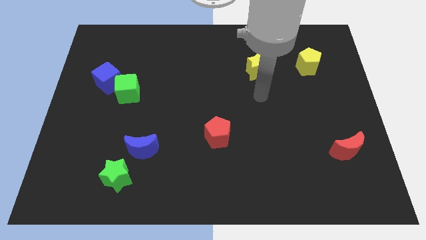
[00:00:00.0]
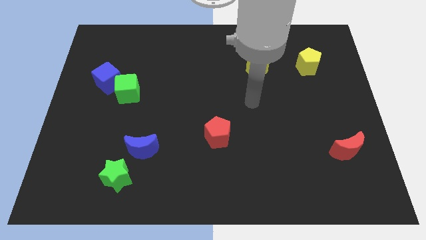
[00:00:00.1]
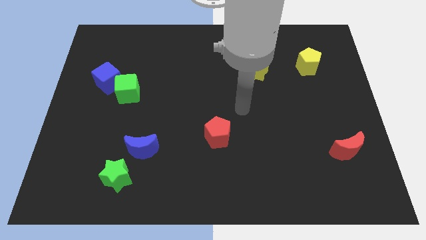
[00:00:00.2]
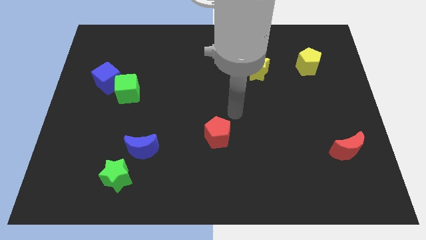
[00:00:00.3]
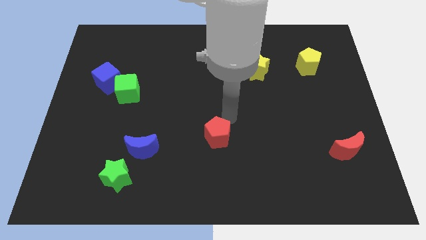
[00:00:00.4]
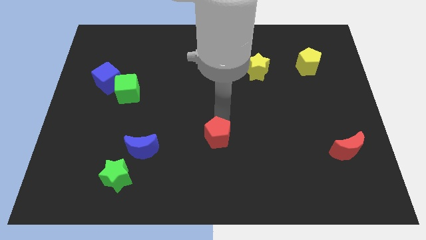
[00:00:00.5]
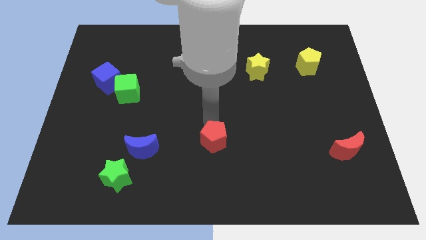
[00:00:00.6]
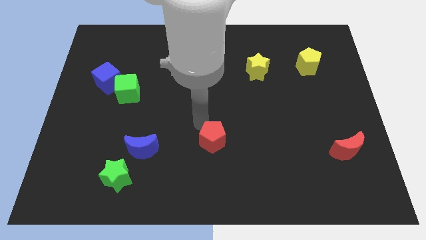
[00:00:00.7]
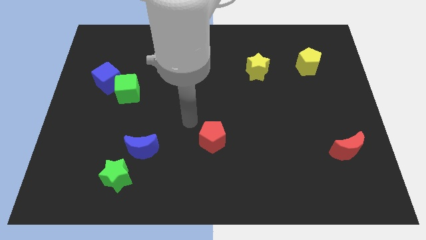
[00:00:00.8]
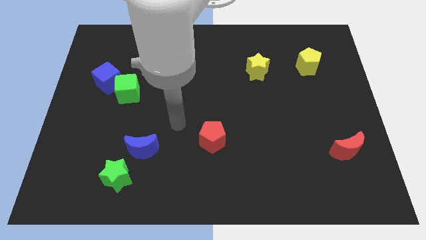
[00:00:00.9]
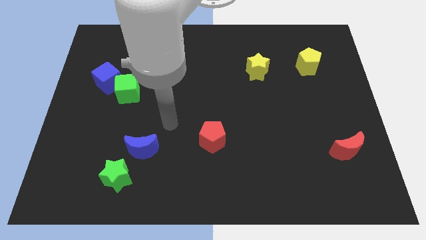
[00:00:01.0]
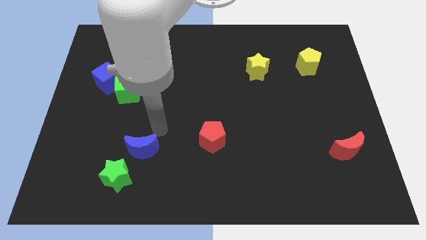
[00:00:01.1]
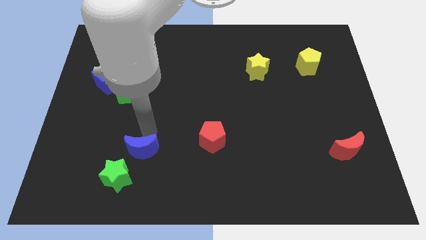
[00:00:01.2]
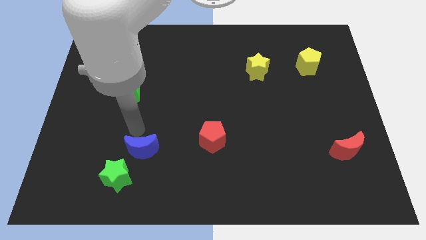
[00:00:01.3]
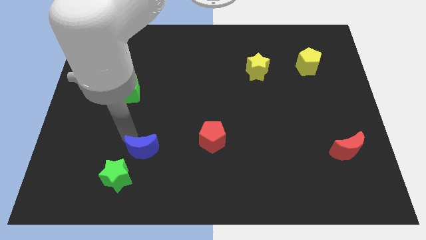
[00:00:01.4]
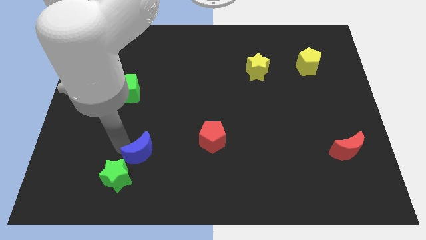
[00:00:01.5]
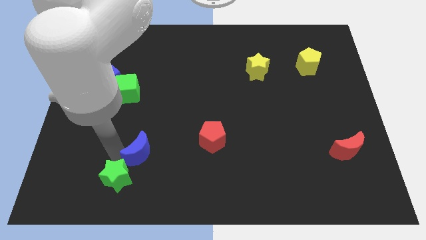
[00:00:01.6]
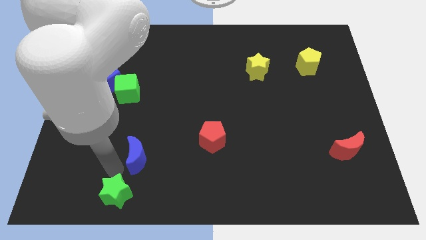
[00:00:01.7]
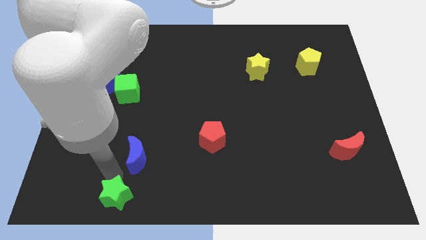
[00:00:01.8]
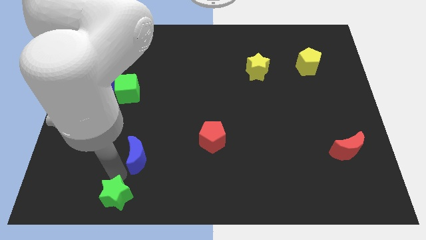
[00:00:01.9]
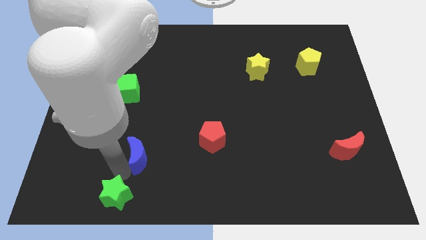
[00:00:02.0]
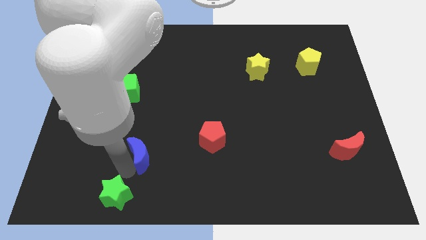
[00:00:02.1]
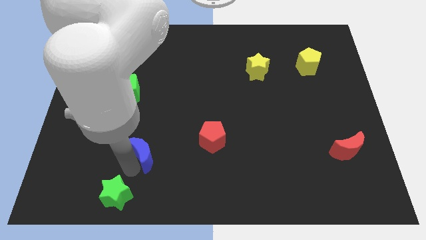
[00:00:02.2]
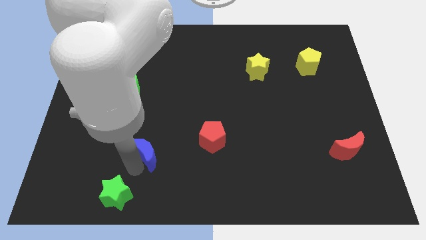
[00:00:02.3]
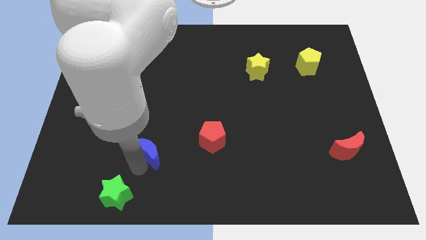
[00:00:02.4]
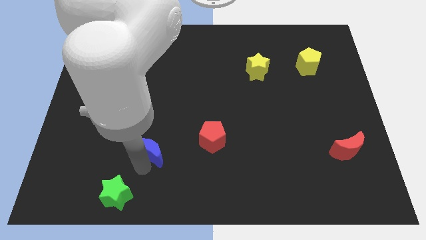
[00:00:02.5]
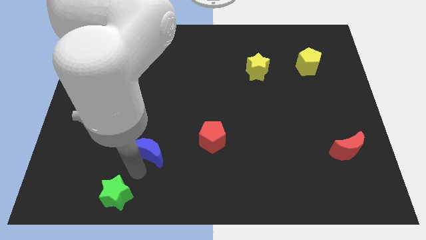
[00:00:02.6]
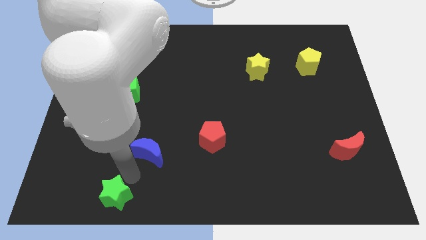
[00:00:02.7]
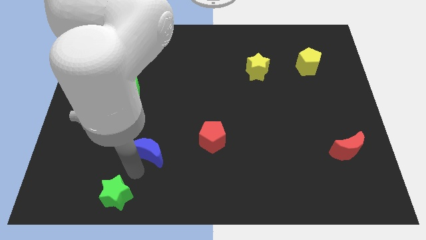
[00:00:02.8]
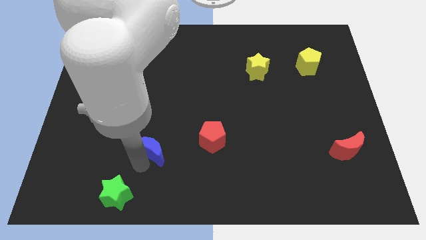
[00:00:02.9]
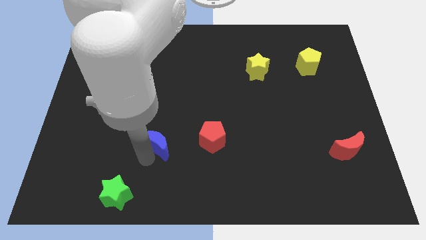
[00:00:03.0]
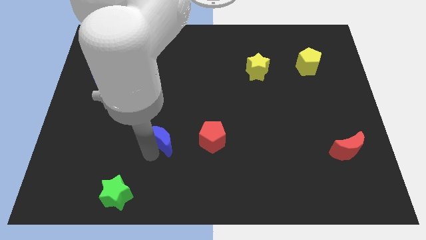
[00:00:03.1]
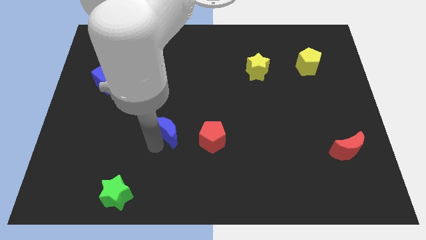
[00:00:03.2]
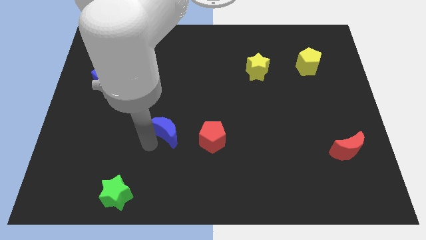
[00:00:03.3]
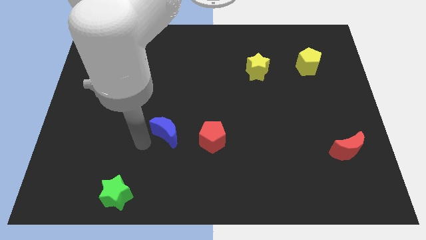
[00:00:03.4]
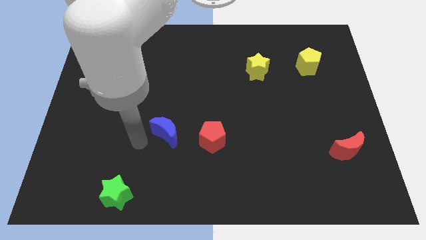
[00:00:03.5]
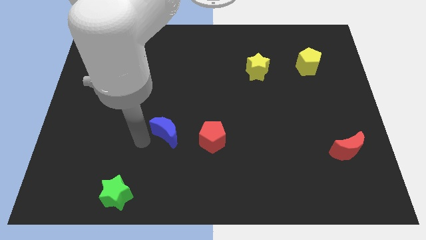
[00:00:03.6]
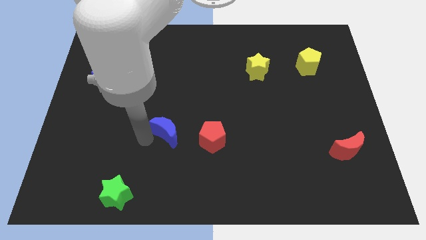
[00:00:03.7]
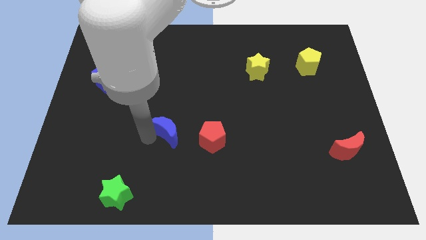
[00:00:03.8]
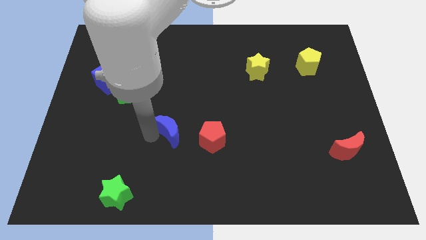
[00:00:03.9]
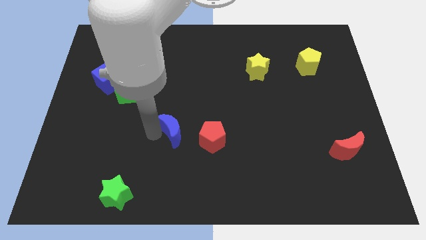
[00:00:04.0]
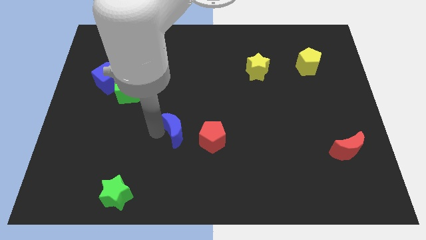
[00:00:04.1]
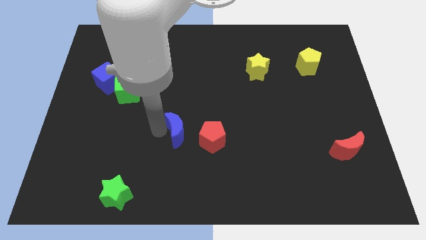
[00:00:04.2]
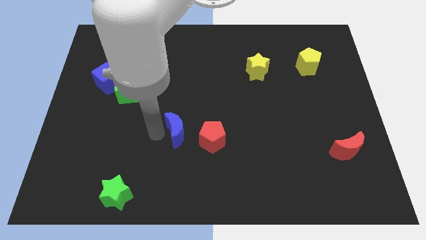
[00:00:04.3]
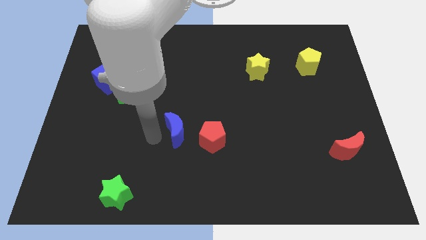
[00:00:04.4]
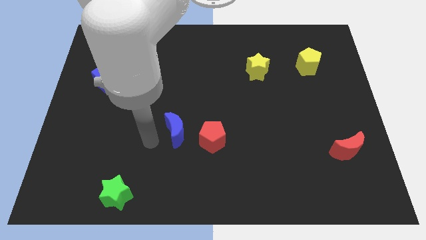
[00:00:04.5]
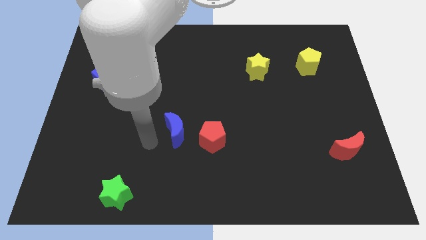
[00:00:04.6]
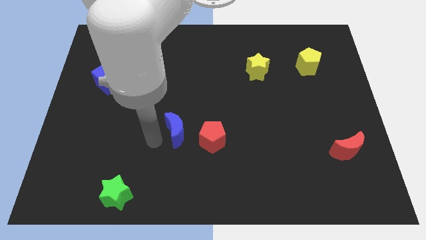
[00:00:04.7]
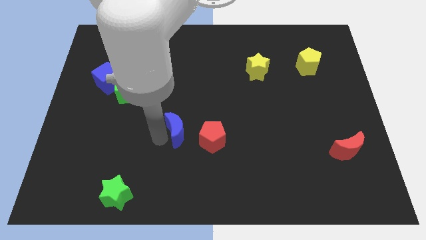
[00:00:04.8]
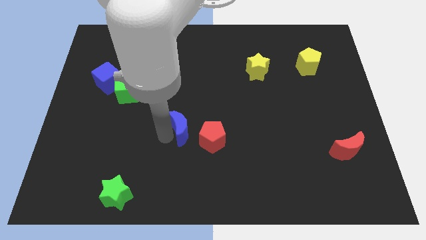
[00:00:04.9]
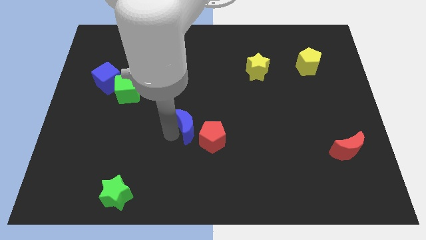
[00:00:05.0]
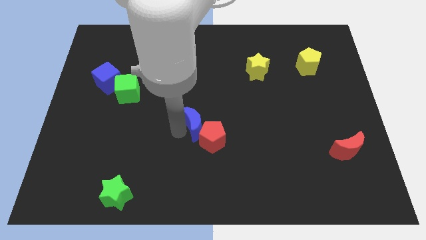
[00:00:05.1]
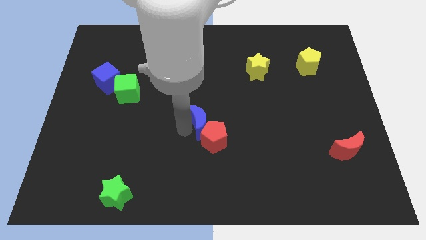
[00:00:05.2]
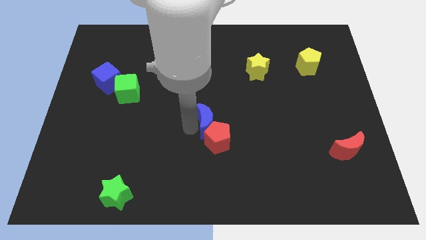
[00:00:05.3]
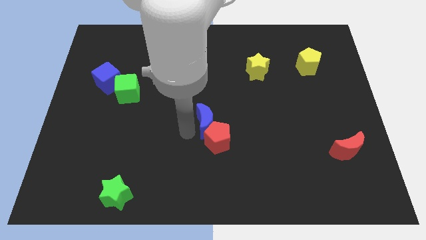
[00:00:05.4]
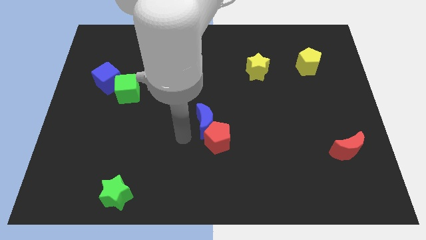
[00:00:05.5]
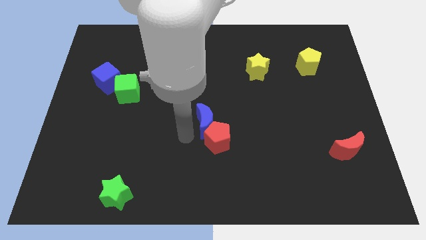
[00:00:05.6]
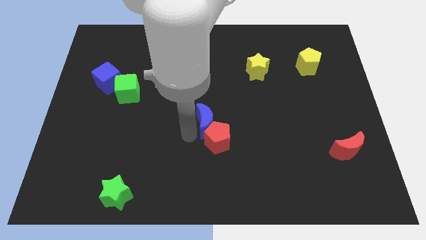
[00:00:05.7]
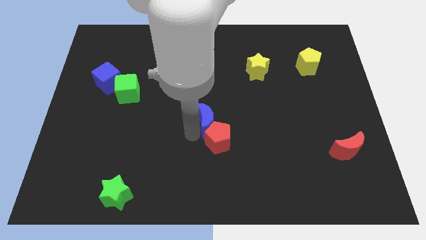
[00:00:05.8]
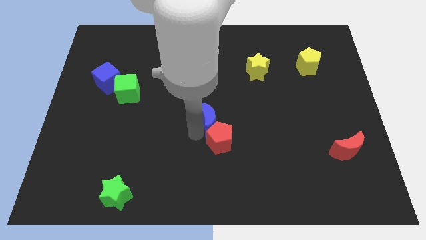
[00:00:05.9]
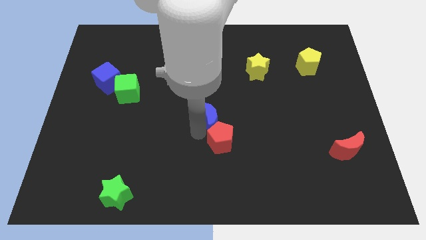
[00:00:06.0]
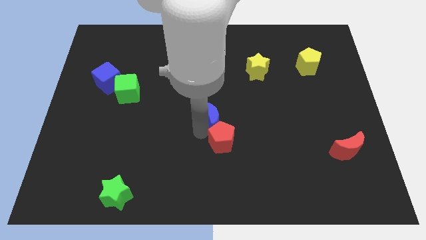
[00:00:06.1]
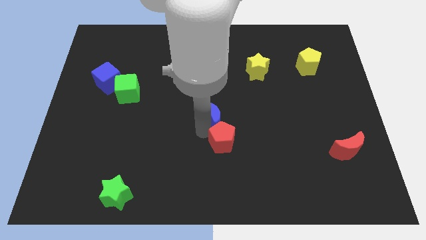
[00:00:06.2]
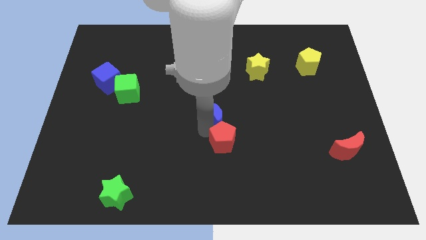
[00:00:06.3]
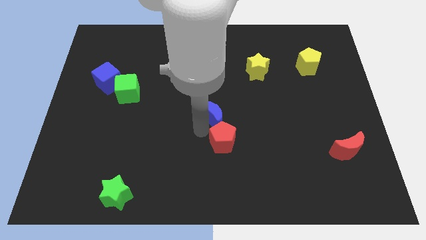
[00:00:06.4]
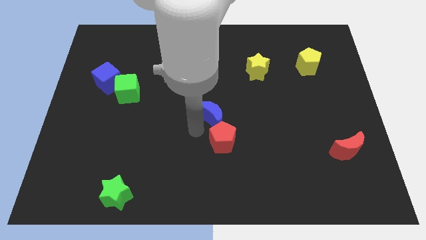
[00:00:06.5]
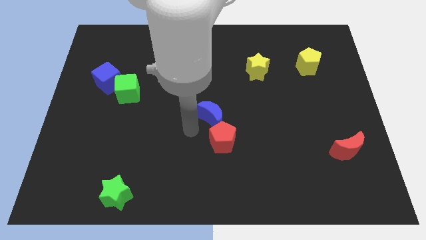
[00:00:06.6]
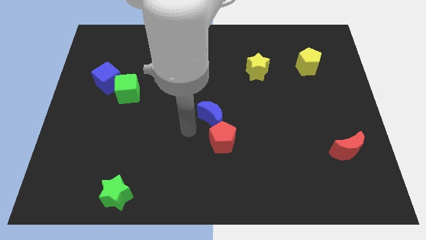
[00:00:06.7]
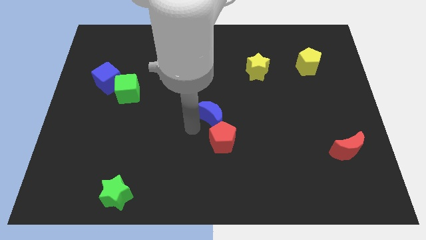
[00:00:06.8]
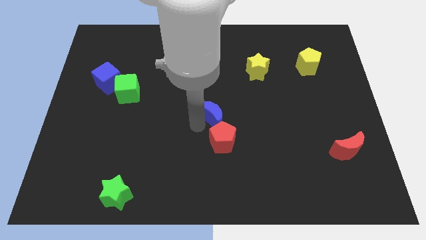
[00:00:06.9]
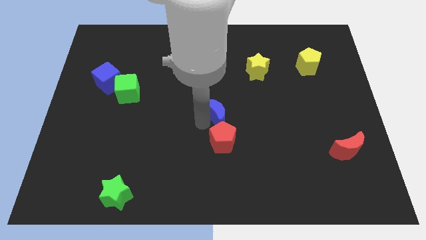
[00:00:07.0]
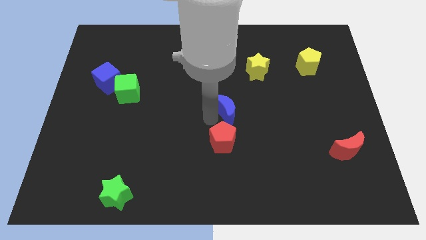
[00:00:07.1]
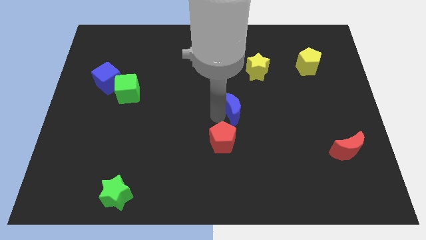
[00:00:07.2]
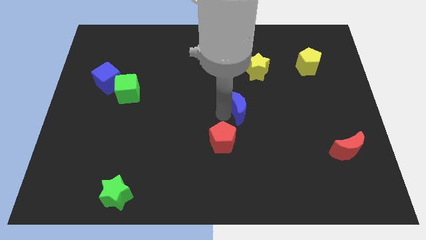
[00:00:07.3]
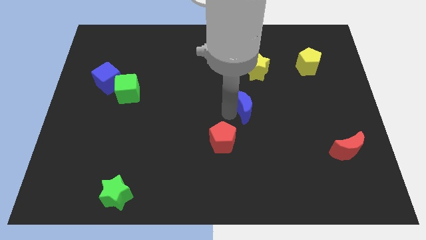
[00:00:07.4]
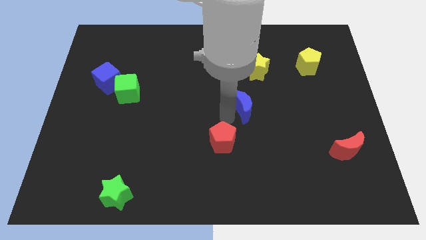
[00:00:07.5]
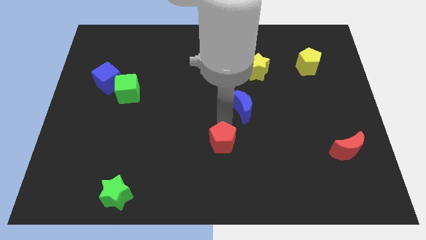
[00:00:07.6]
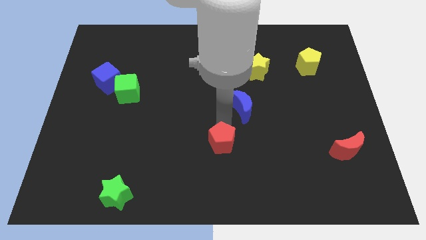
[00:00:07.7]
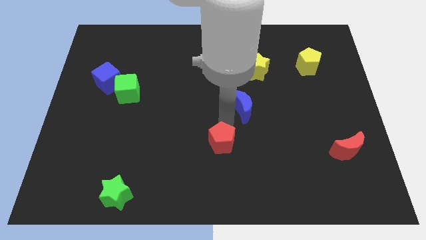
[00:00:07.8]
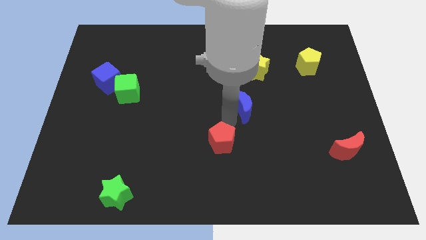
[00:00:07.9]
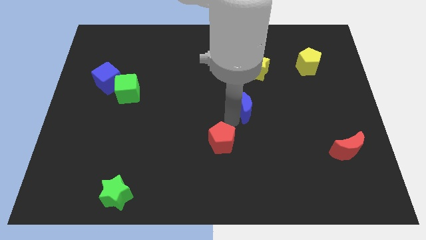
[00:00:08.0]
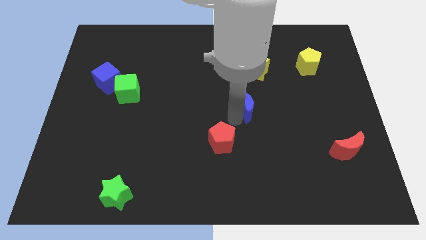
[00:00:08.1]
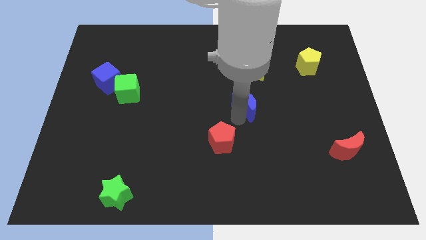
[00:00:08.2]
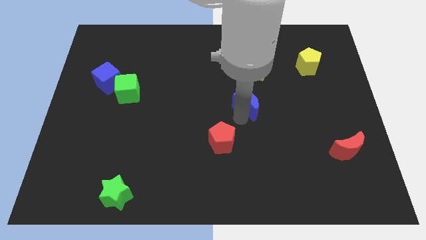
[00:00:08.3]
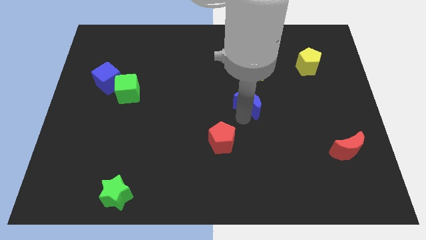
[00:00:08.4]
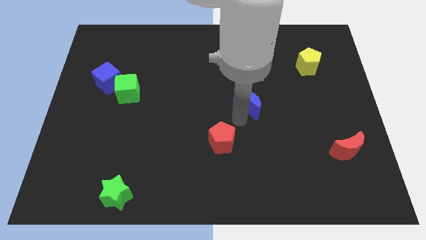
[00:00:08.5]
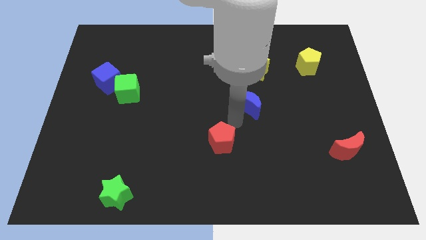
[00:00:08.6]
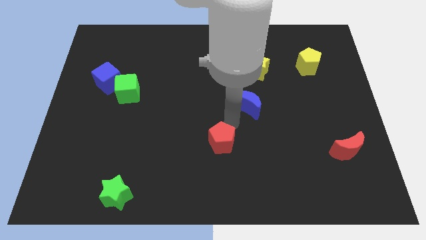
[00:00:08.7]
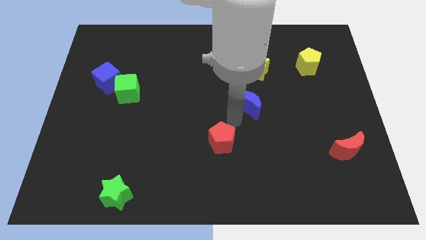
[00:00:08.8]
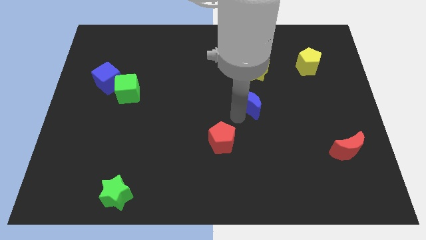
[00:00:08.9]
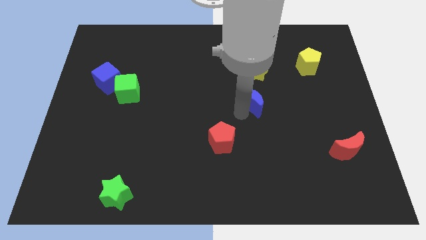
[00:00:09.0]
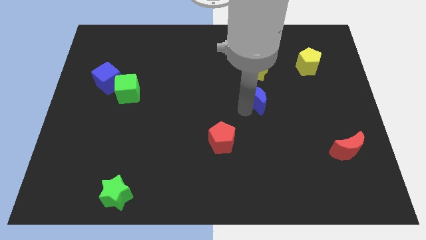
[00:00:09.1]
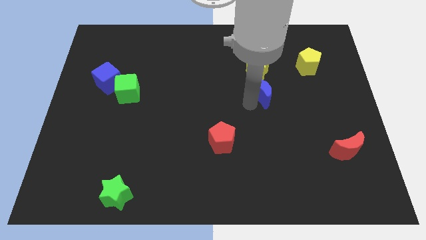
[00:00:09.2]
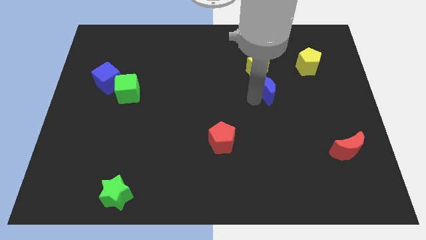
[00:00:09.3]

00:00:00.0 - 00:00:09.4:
move the blue moon to the bottom right side of the yellow star
